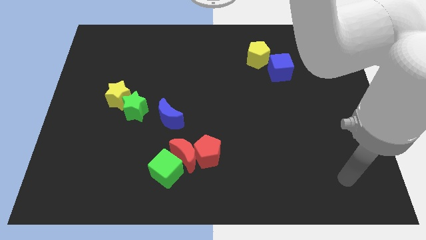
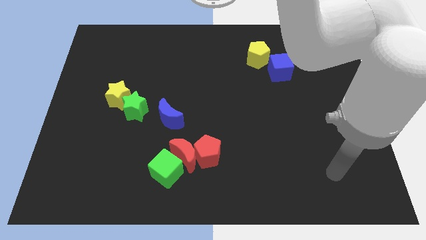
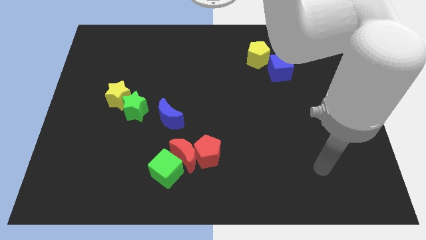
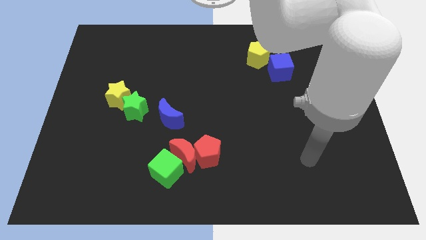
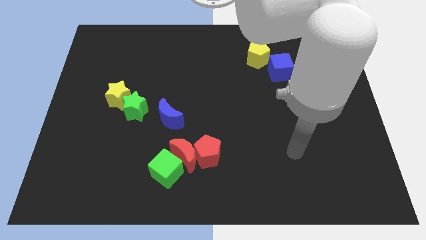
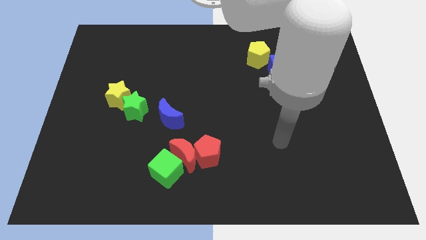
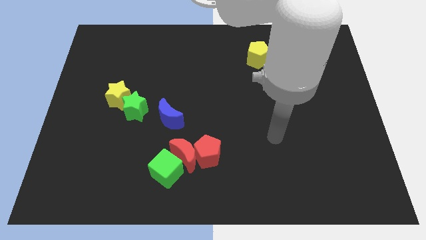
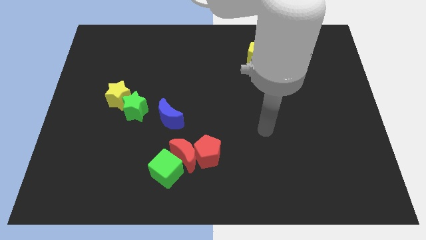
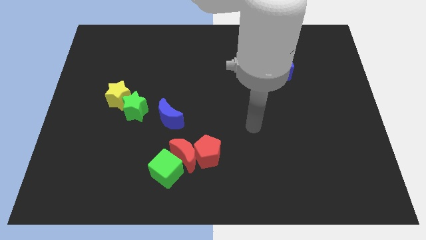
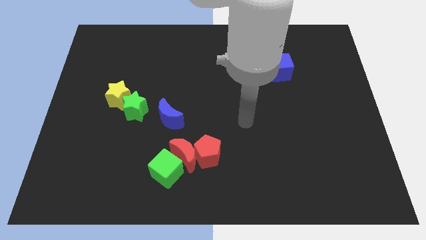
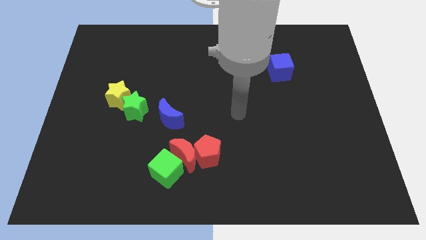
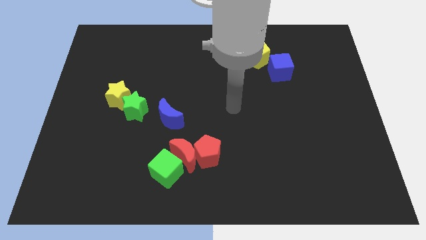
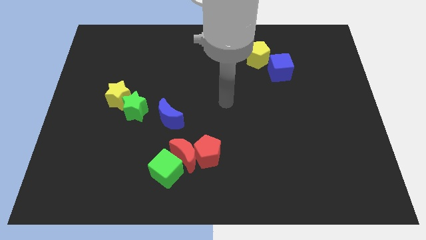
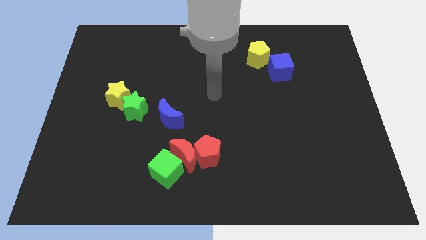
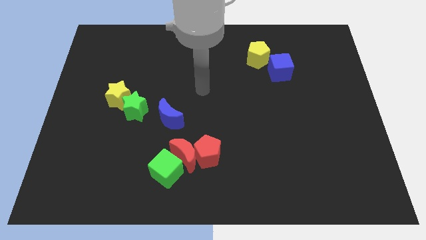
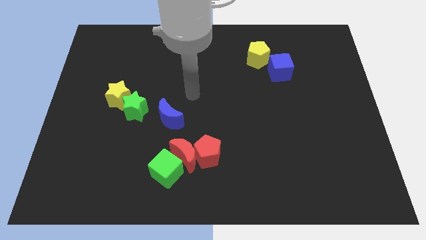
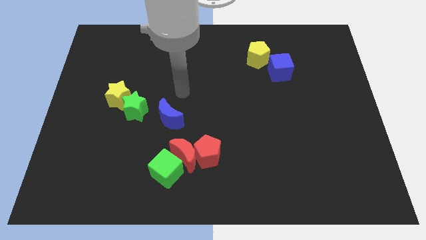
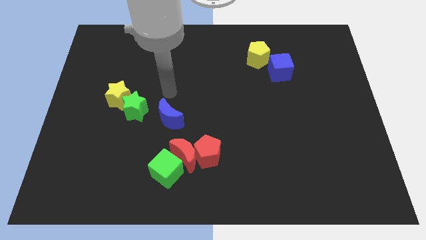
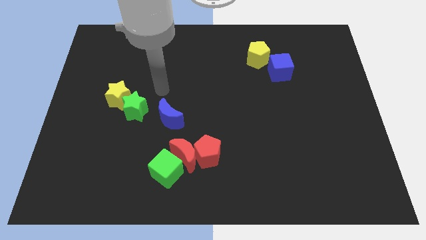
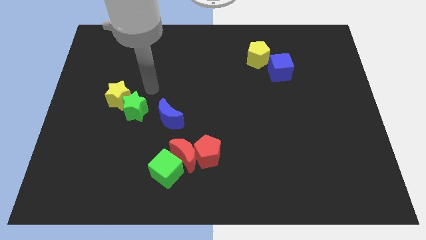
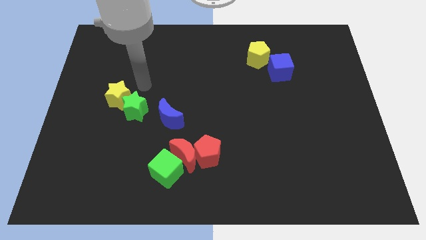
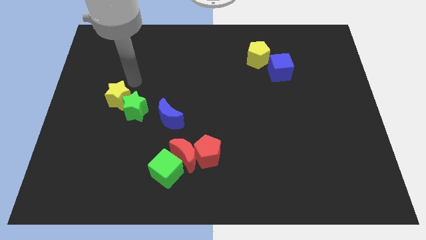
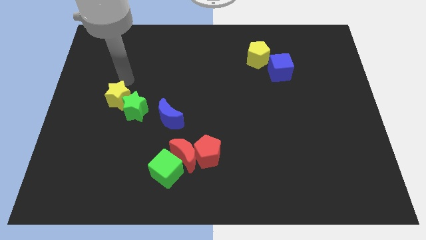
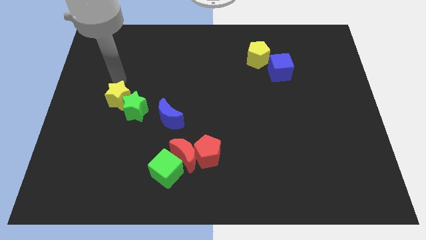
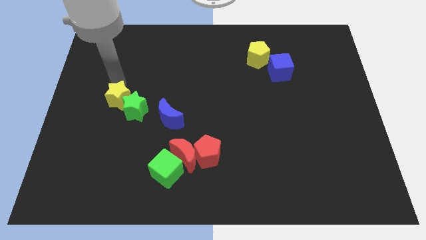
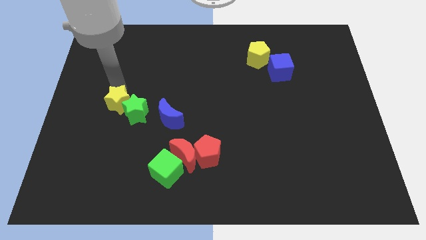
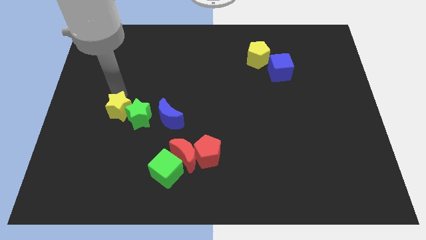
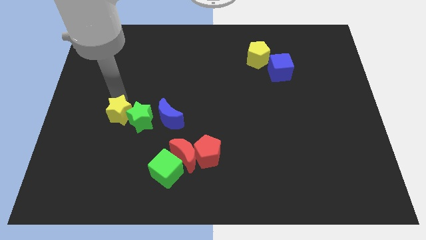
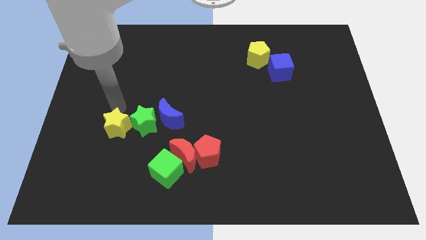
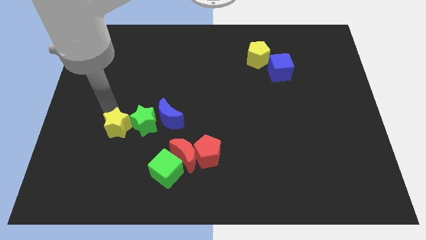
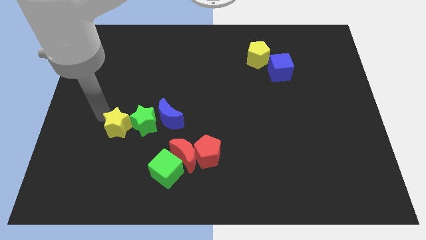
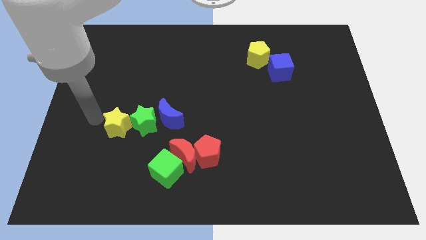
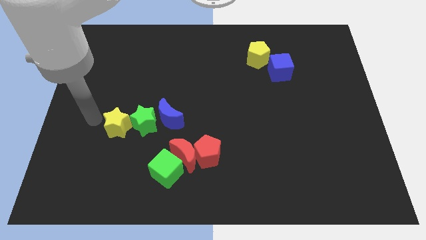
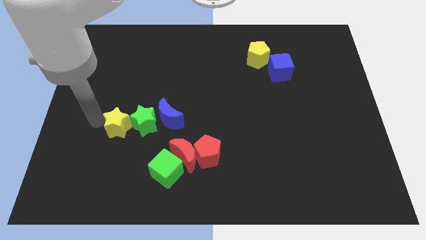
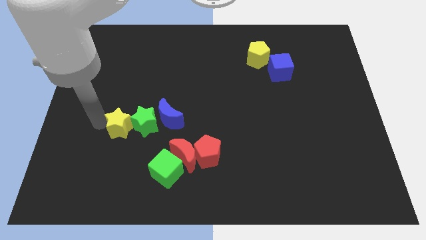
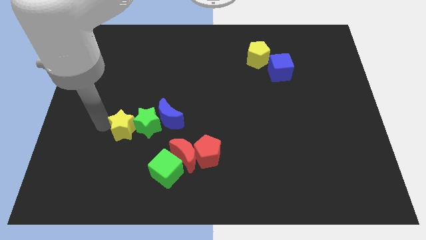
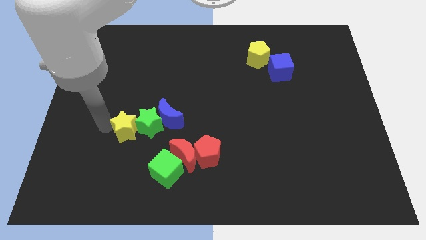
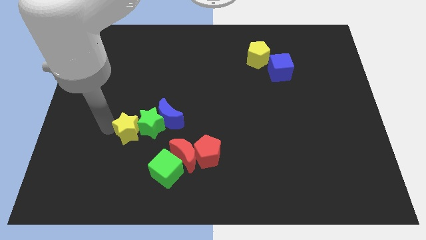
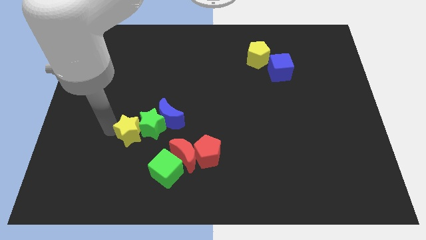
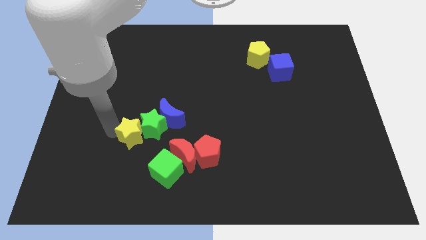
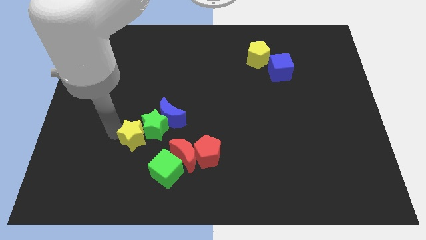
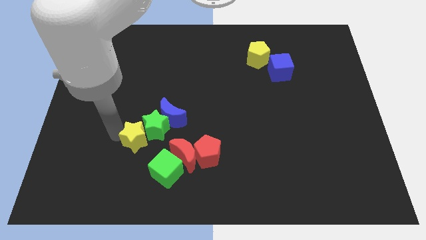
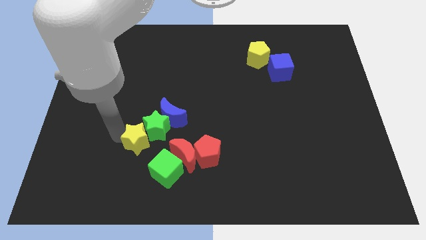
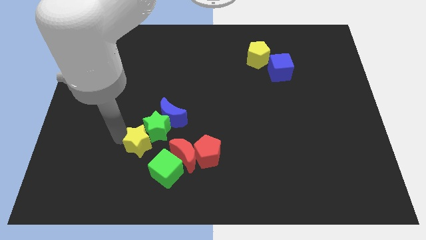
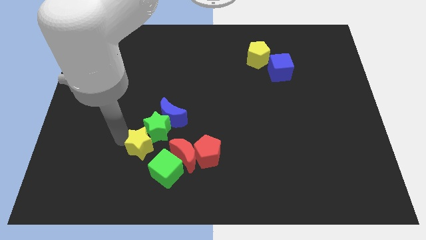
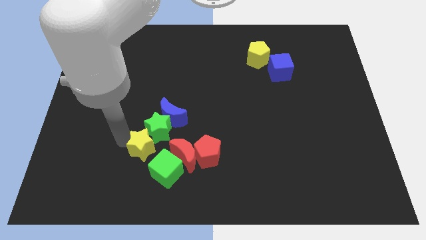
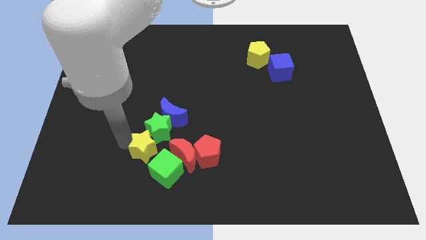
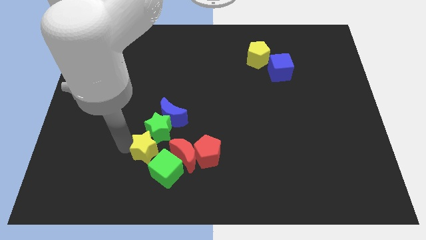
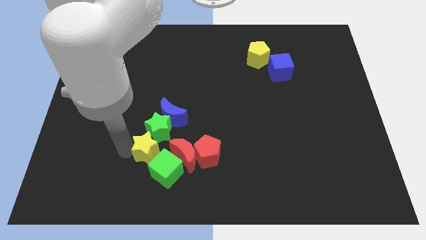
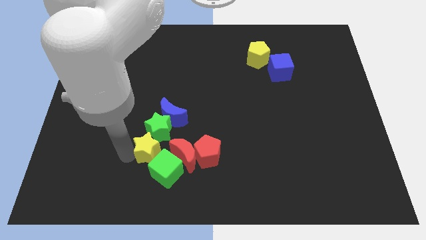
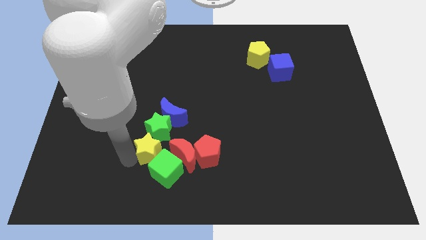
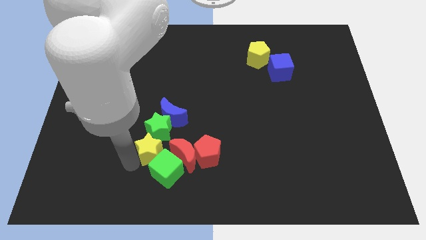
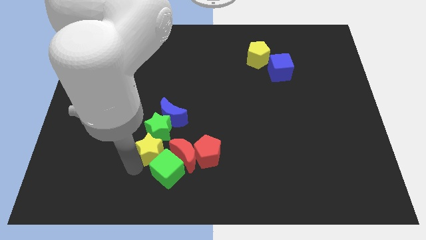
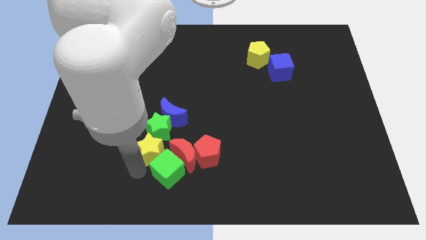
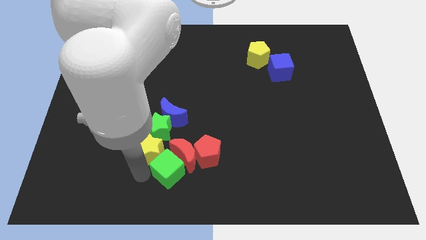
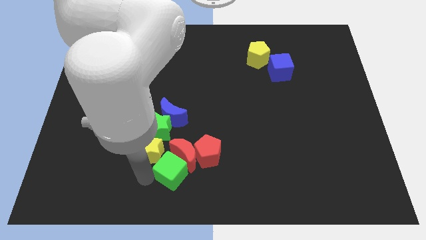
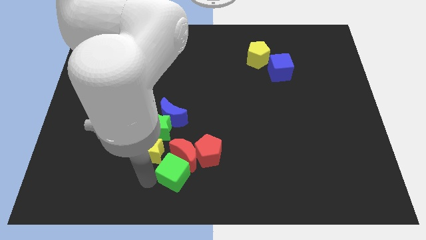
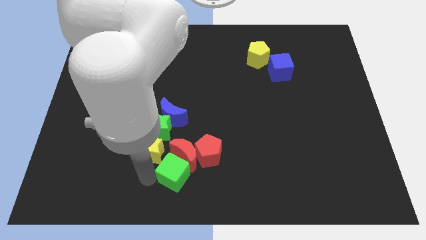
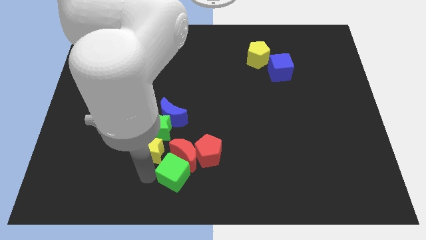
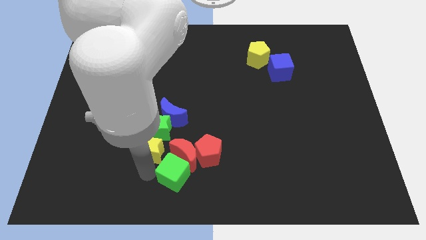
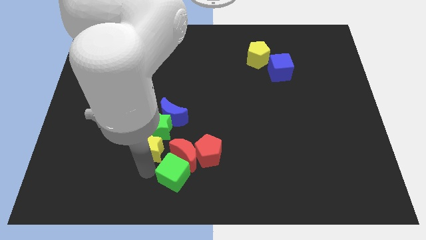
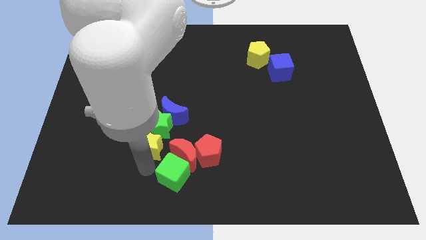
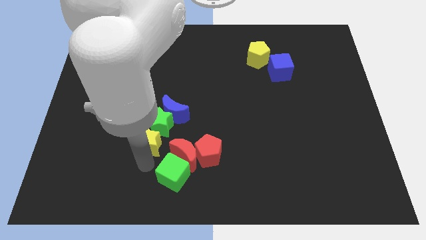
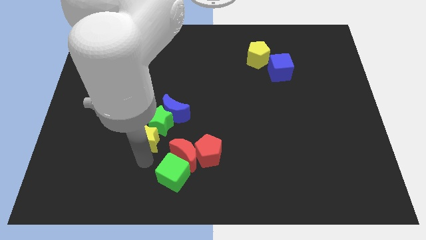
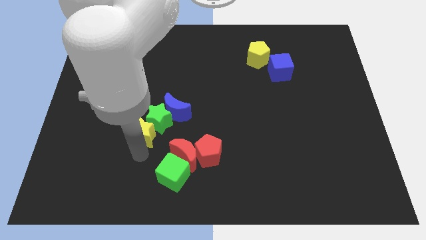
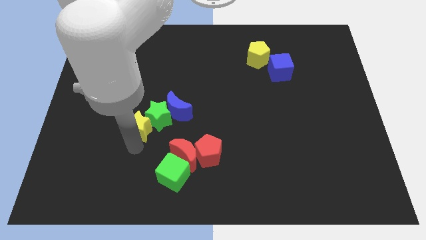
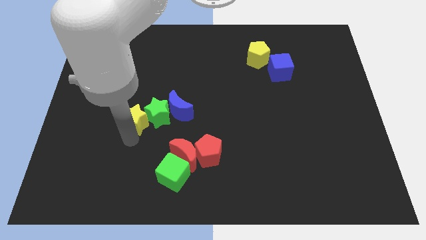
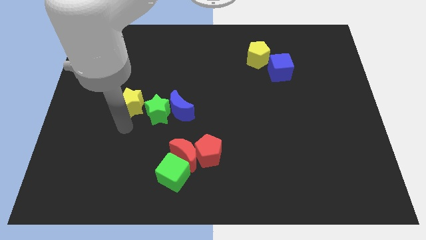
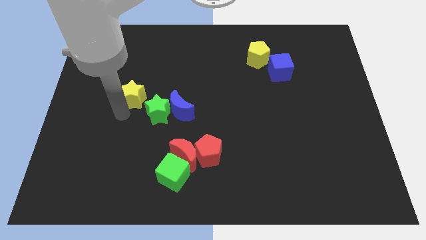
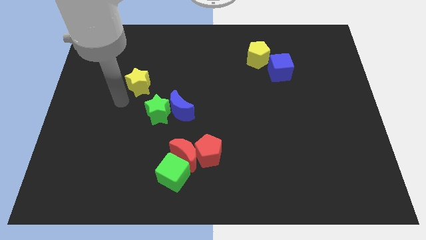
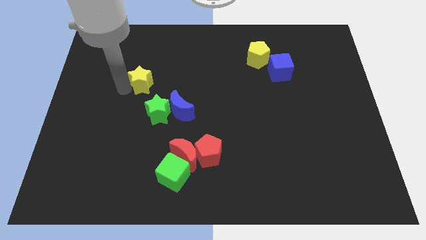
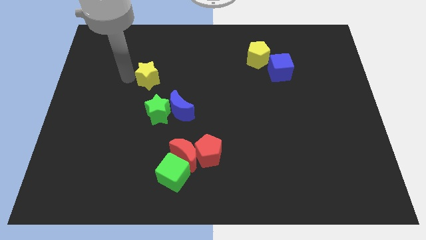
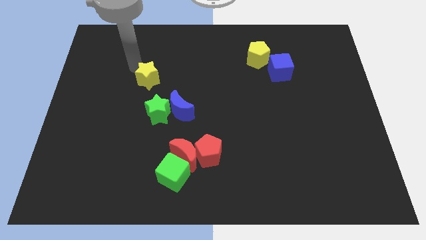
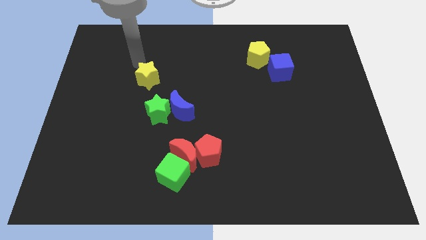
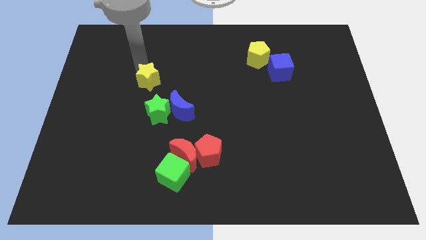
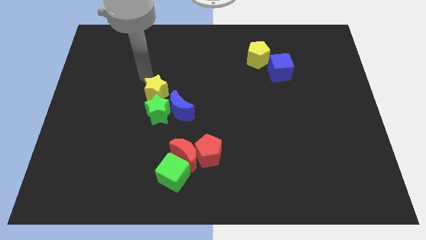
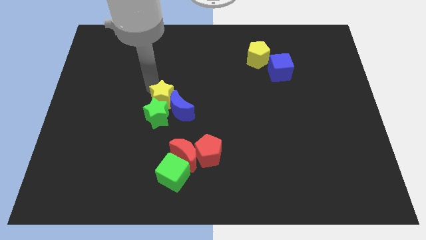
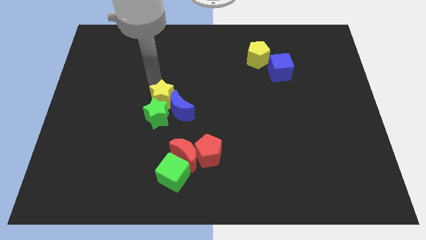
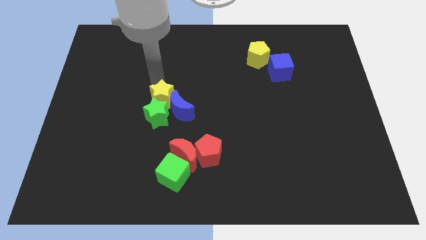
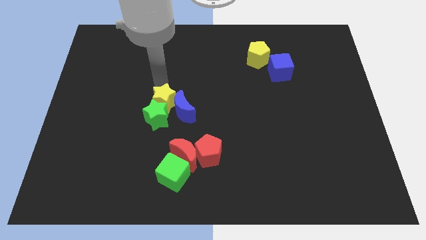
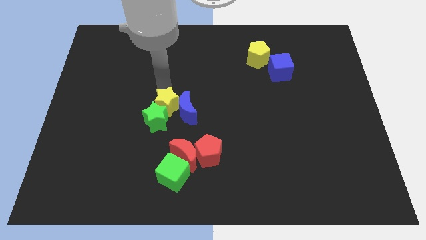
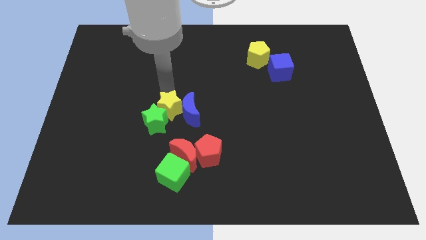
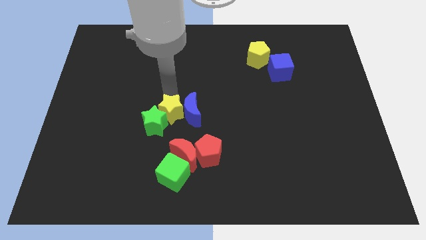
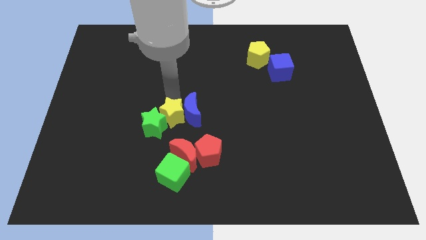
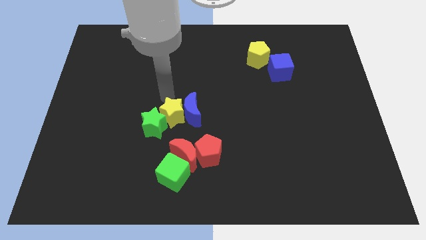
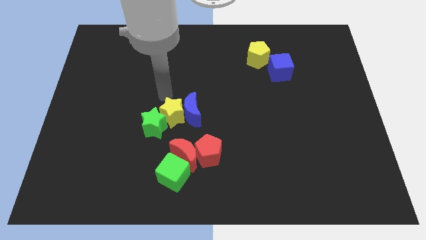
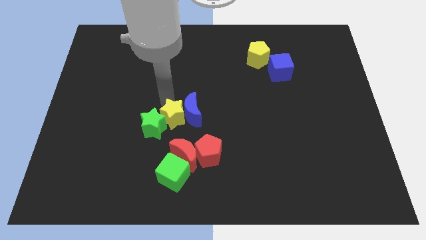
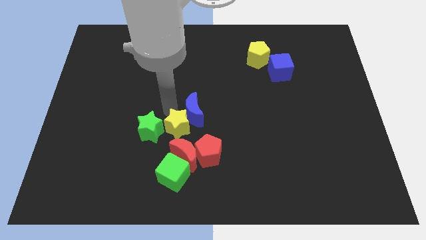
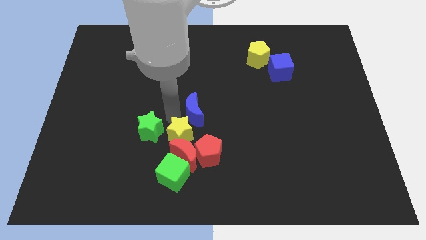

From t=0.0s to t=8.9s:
slide the yellow star next to the red moon
